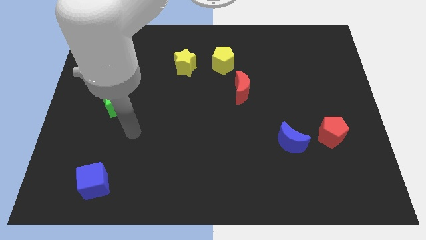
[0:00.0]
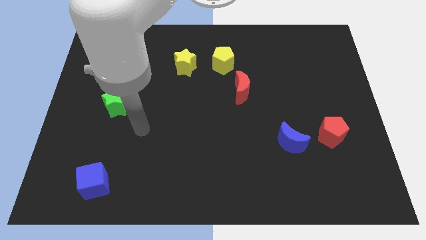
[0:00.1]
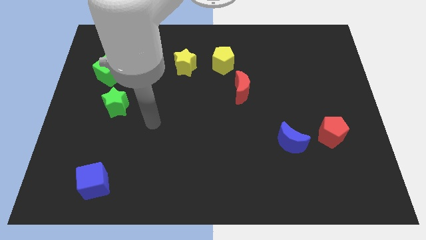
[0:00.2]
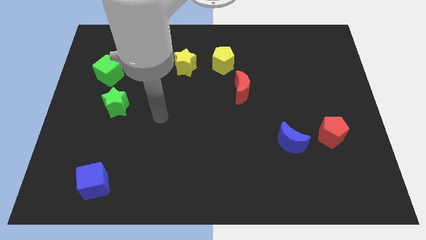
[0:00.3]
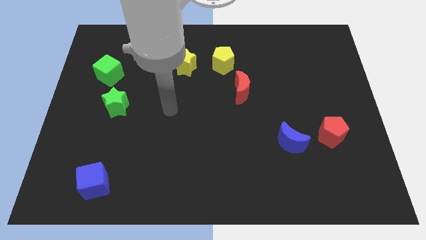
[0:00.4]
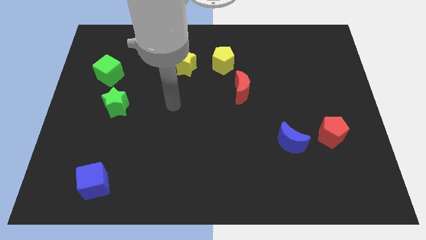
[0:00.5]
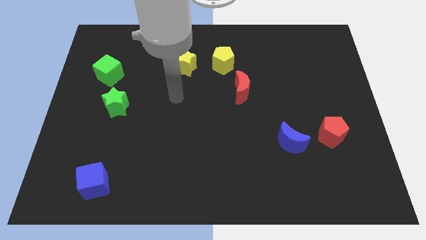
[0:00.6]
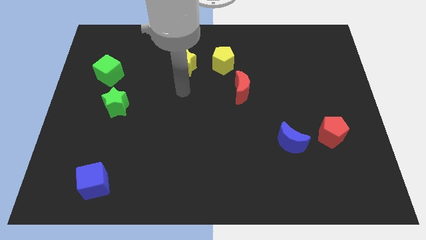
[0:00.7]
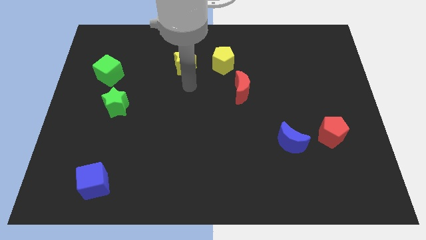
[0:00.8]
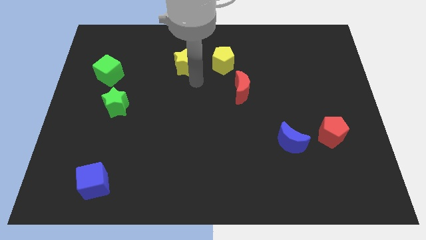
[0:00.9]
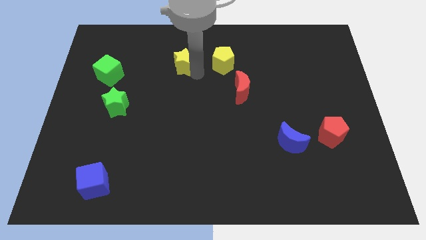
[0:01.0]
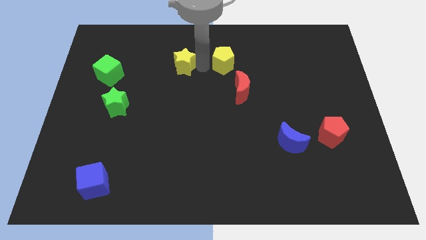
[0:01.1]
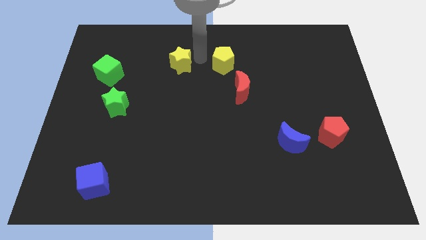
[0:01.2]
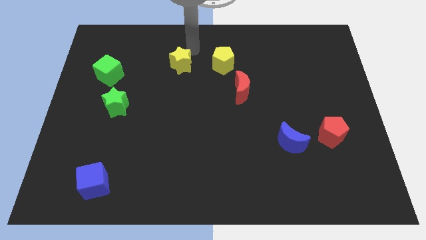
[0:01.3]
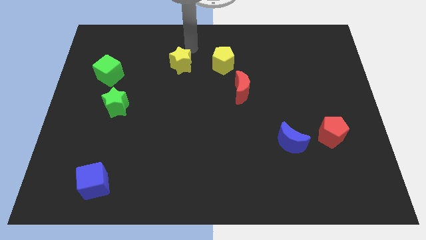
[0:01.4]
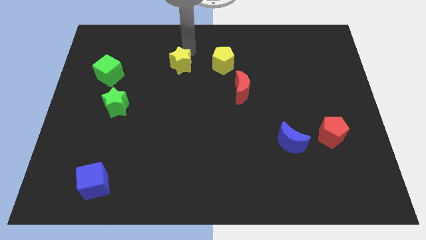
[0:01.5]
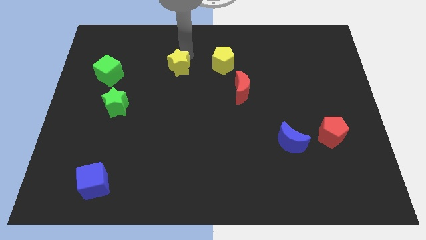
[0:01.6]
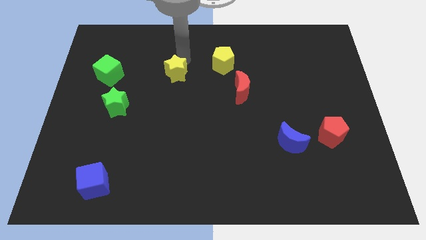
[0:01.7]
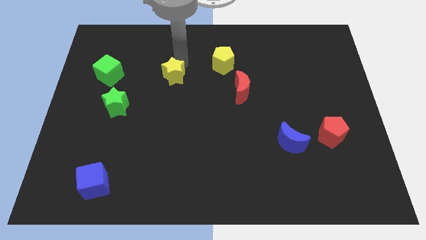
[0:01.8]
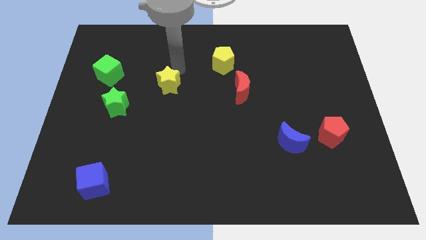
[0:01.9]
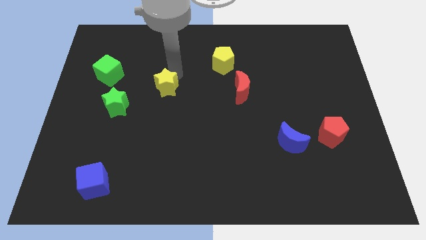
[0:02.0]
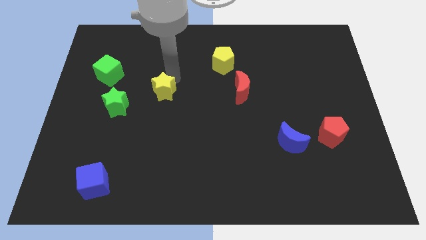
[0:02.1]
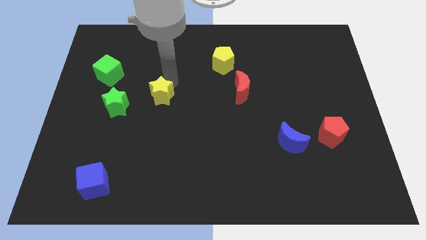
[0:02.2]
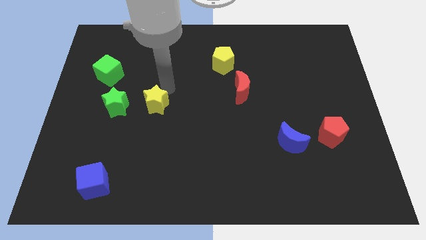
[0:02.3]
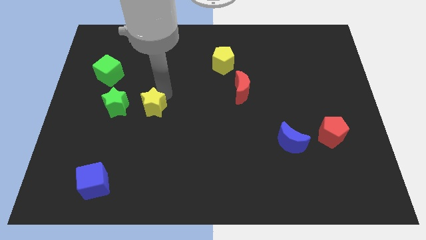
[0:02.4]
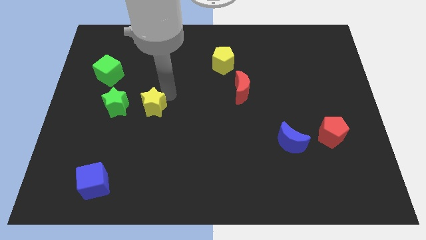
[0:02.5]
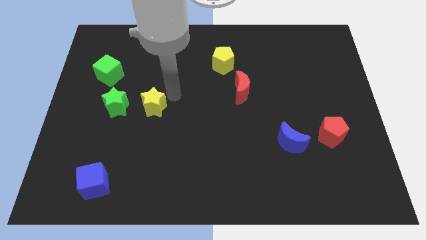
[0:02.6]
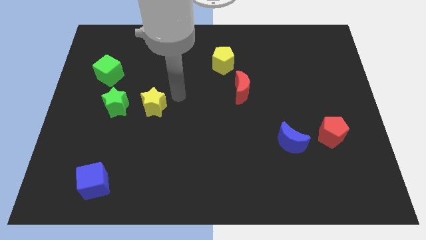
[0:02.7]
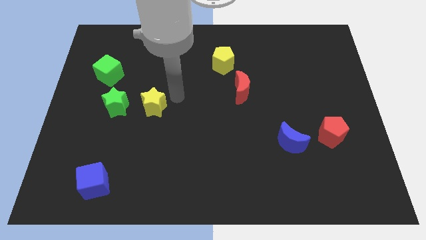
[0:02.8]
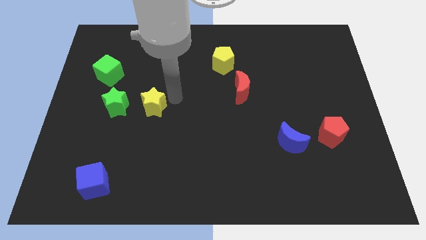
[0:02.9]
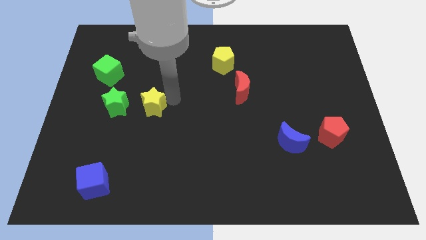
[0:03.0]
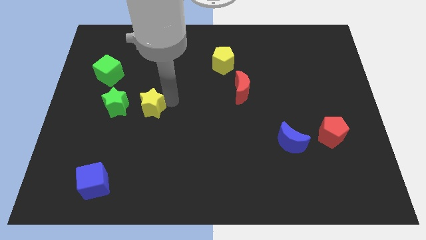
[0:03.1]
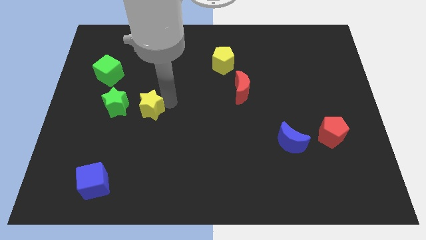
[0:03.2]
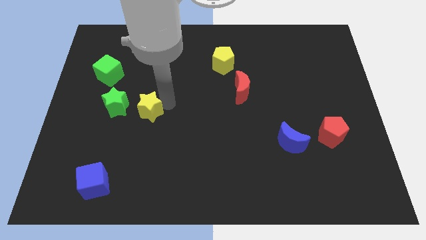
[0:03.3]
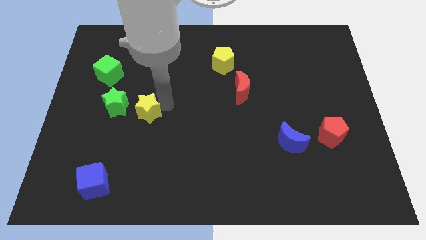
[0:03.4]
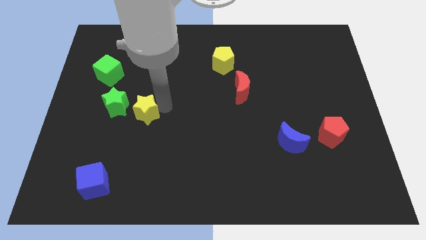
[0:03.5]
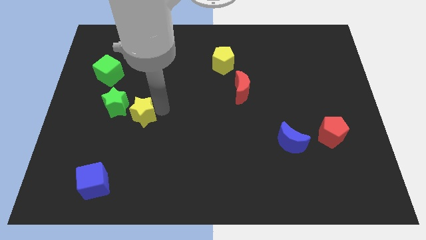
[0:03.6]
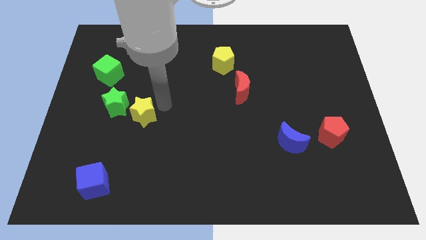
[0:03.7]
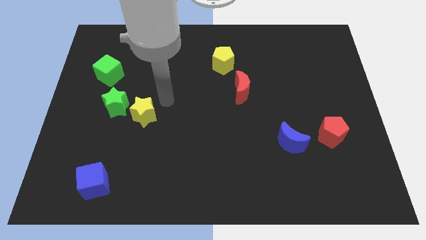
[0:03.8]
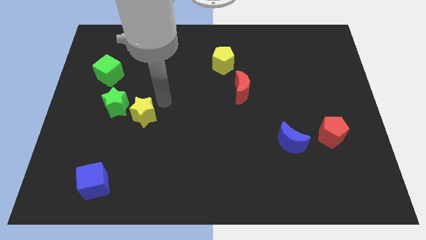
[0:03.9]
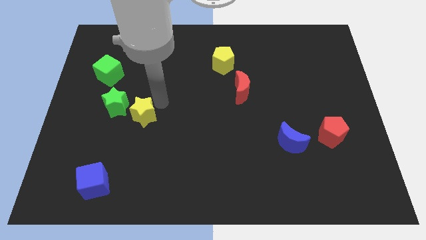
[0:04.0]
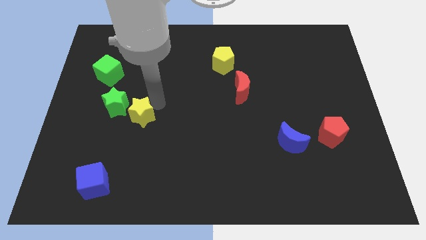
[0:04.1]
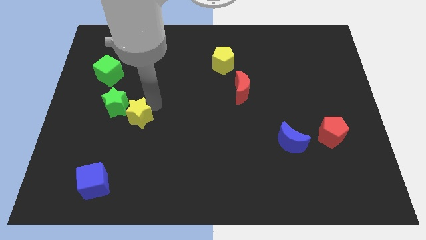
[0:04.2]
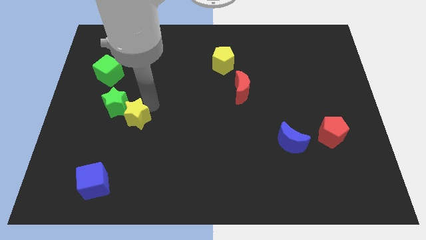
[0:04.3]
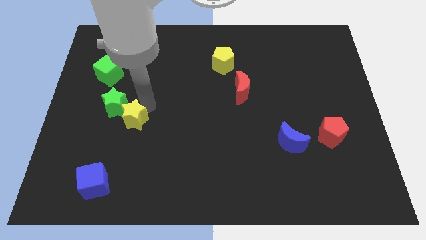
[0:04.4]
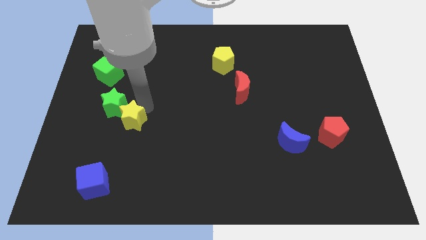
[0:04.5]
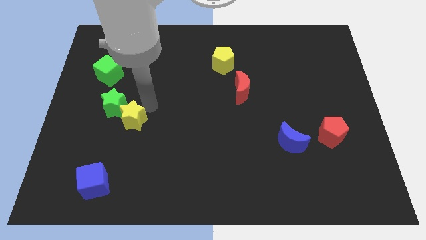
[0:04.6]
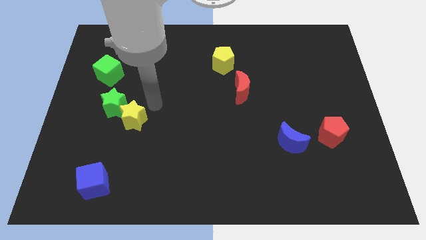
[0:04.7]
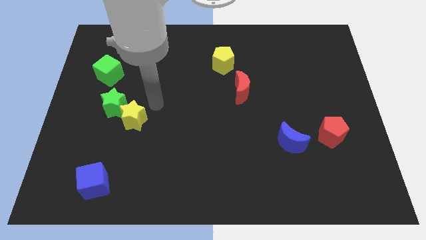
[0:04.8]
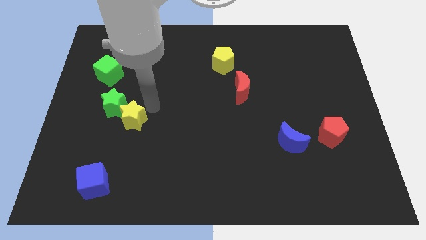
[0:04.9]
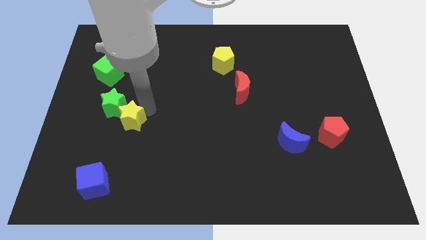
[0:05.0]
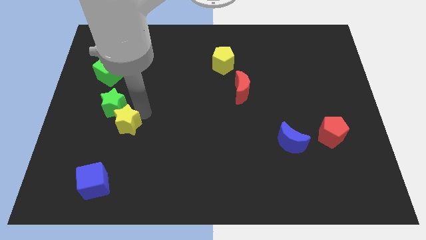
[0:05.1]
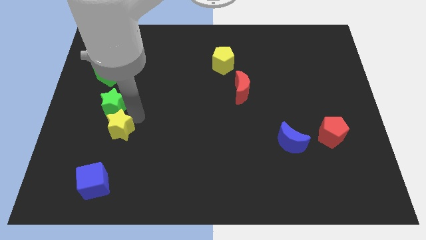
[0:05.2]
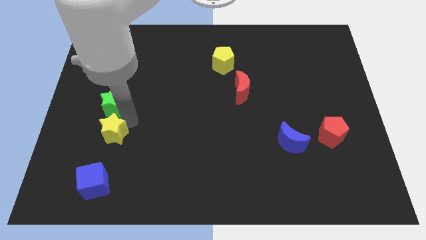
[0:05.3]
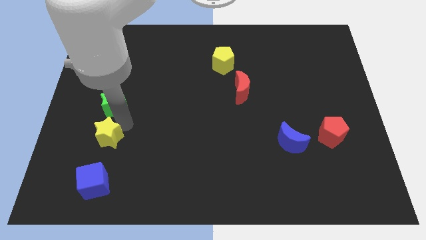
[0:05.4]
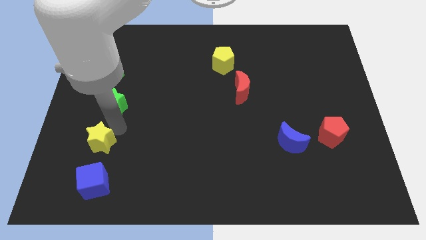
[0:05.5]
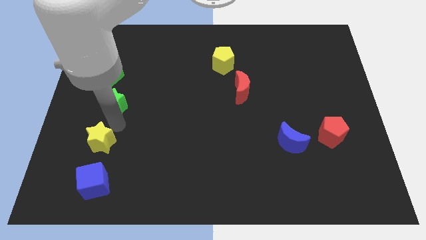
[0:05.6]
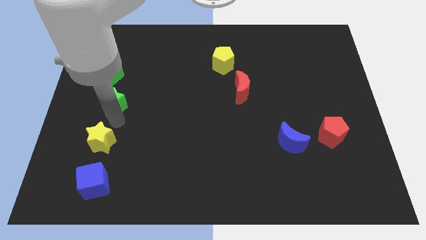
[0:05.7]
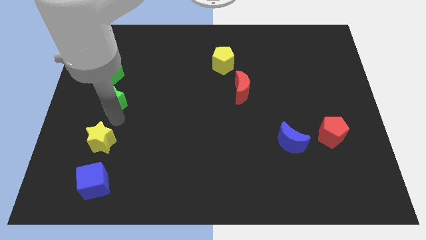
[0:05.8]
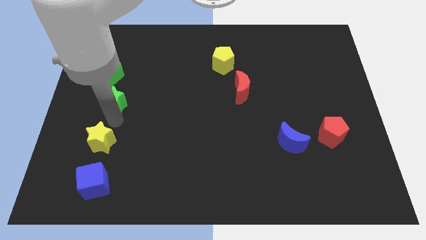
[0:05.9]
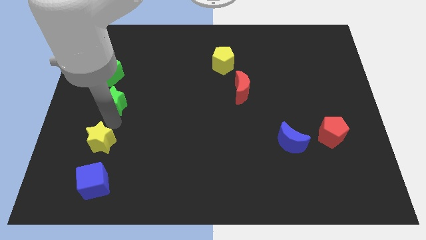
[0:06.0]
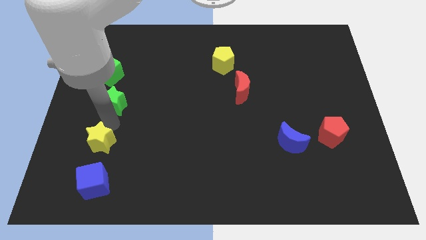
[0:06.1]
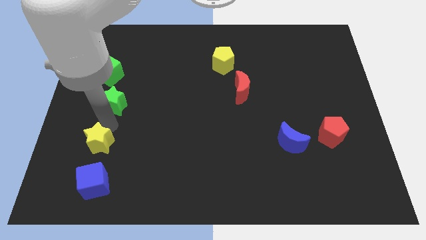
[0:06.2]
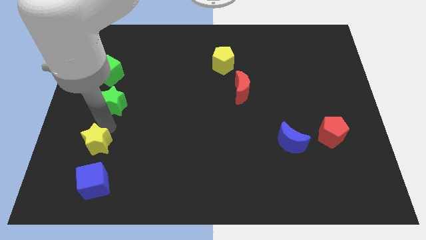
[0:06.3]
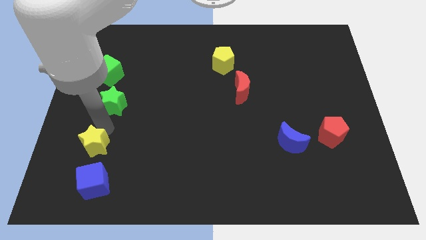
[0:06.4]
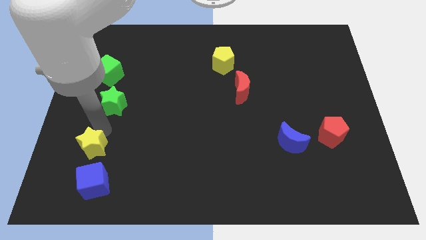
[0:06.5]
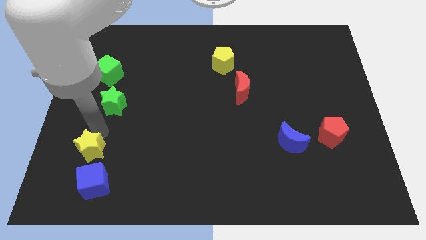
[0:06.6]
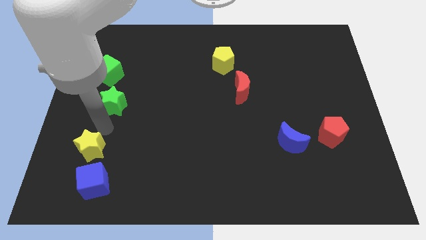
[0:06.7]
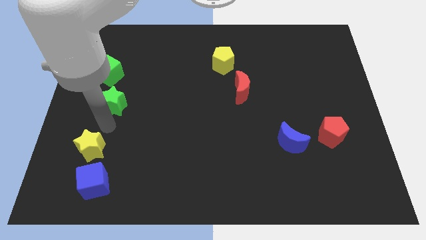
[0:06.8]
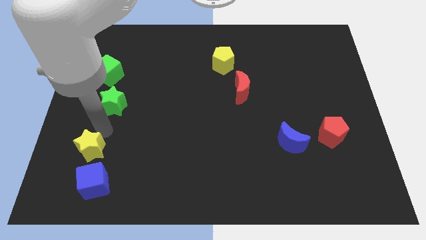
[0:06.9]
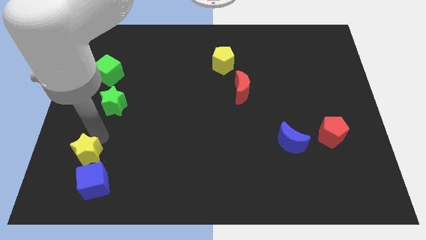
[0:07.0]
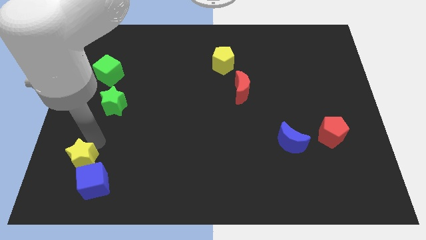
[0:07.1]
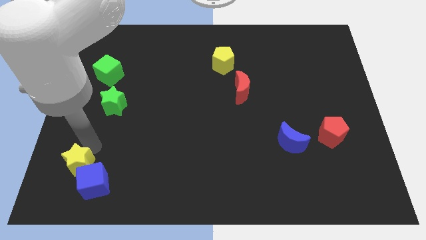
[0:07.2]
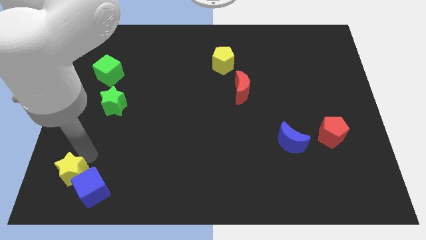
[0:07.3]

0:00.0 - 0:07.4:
push the yellow star to the bottom left of the board
